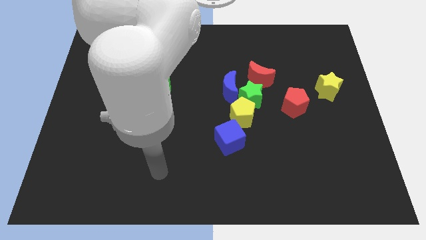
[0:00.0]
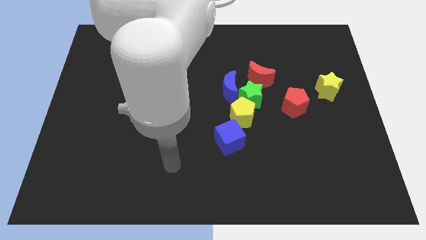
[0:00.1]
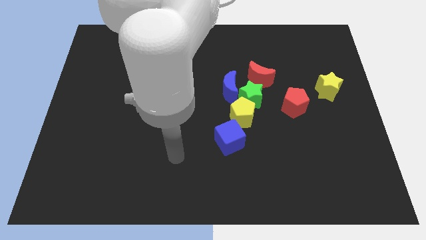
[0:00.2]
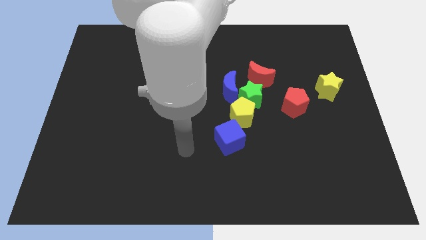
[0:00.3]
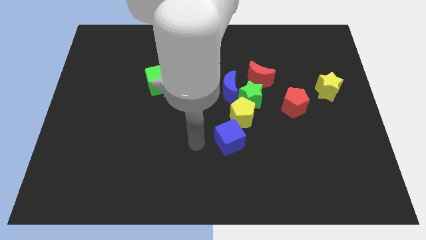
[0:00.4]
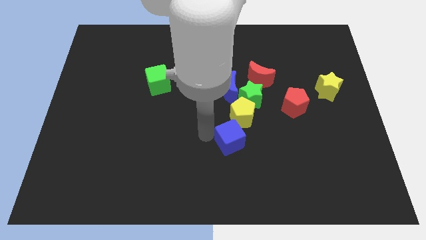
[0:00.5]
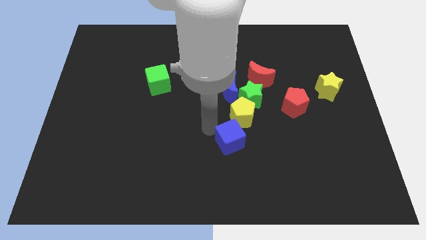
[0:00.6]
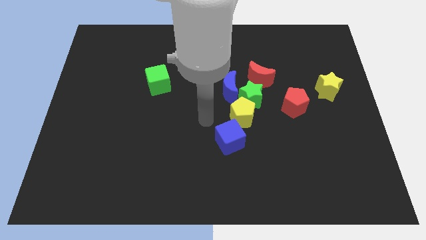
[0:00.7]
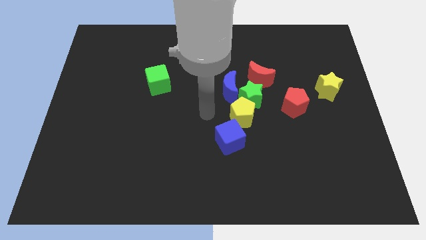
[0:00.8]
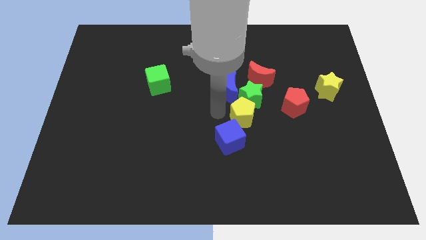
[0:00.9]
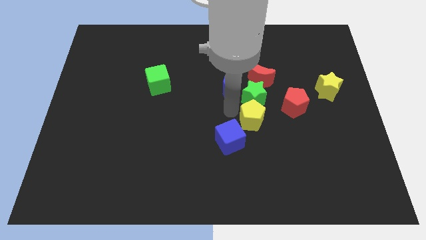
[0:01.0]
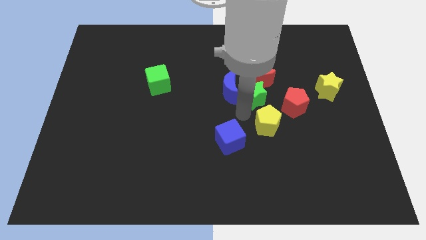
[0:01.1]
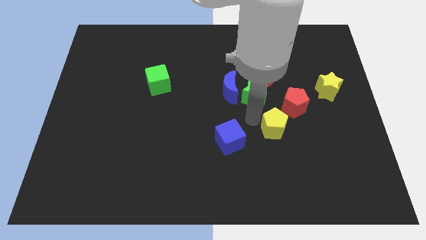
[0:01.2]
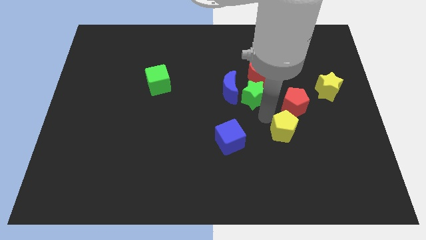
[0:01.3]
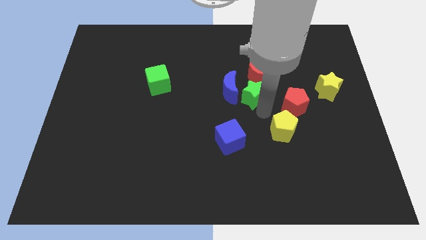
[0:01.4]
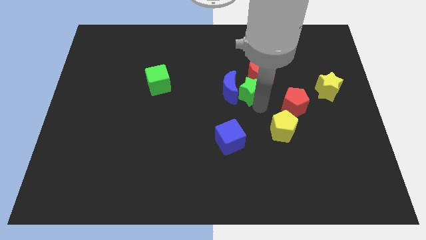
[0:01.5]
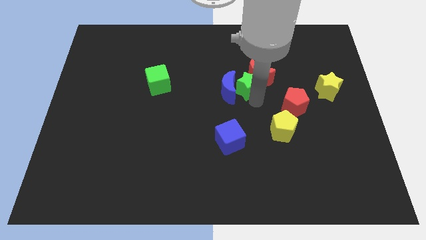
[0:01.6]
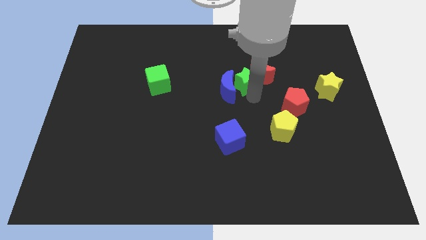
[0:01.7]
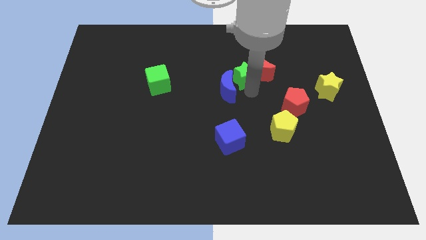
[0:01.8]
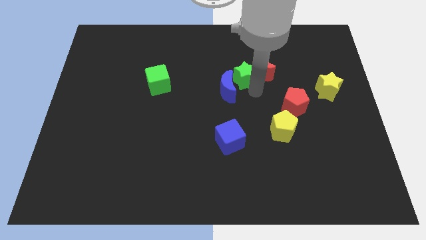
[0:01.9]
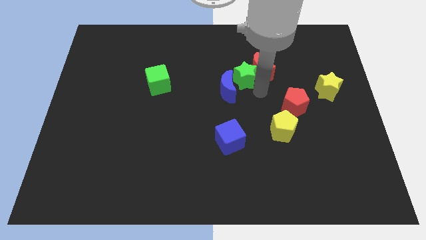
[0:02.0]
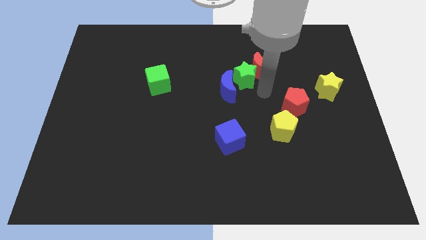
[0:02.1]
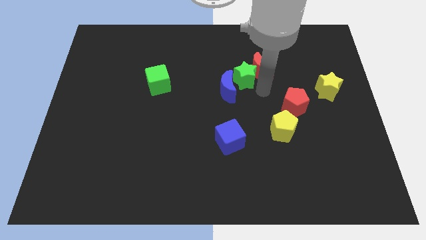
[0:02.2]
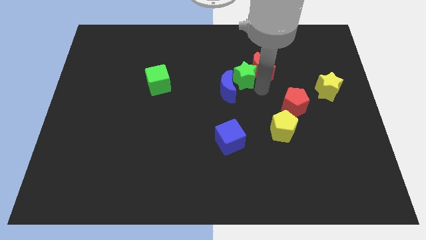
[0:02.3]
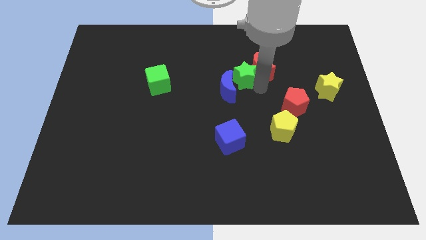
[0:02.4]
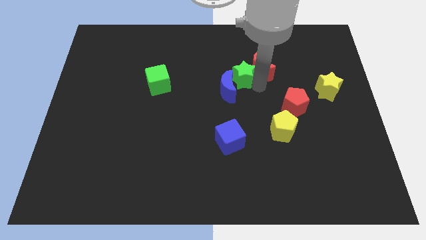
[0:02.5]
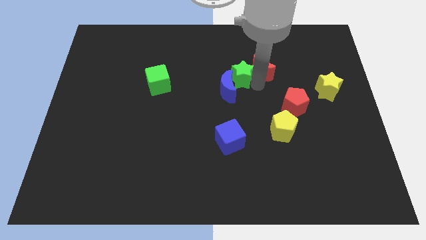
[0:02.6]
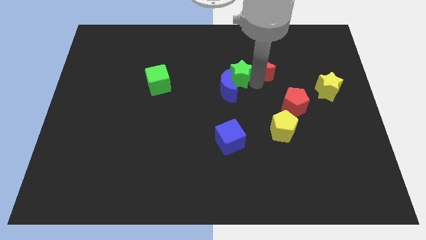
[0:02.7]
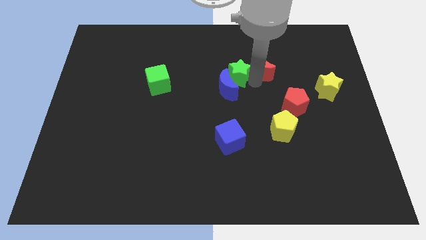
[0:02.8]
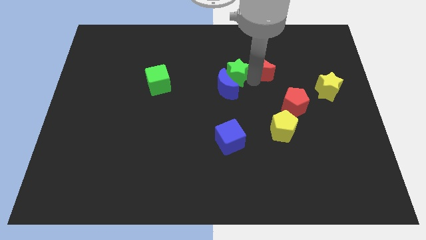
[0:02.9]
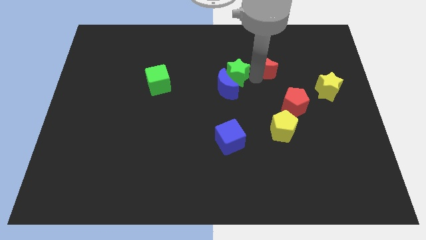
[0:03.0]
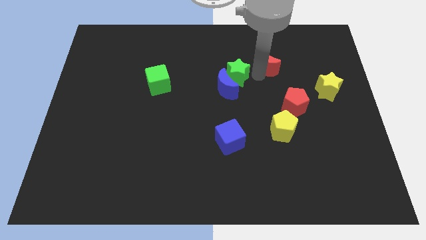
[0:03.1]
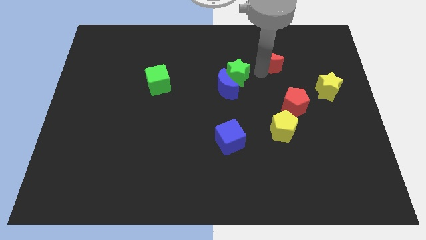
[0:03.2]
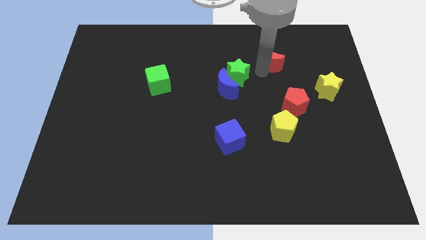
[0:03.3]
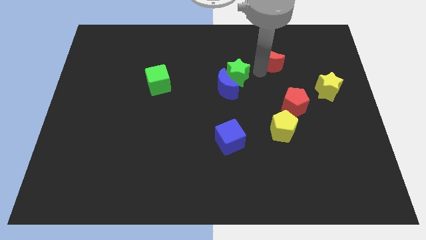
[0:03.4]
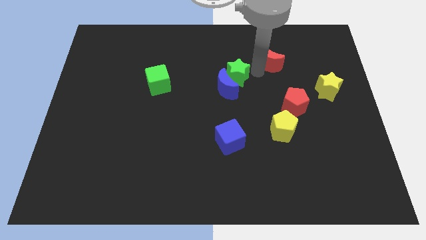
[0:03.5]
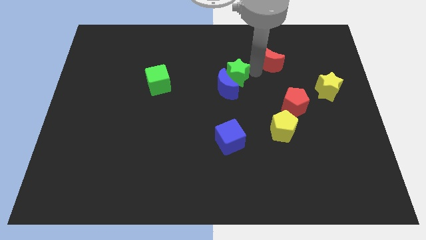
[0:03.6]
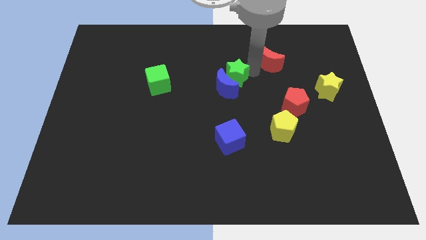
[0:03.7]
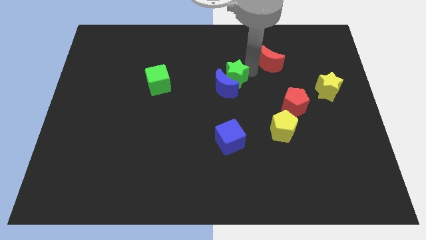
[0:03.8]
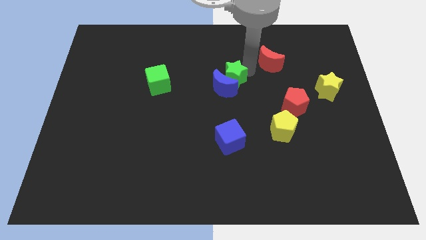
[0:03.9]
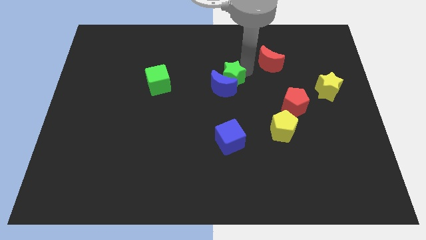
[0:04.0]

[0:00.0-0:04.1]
separate the green star from the group of blocks

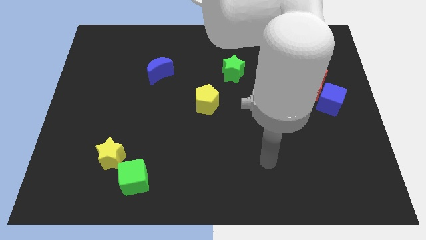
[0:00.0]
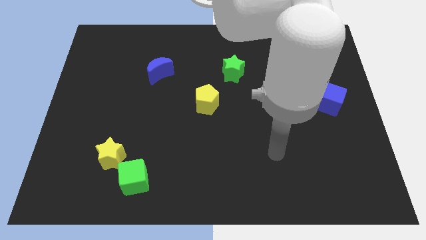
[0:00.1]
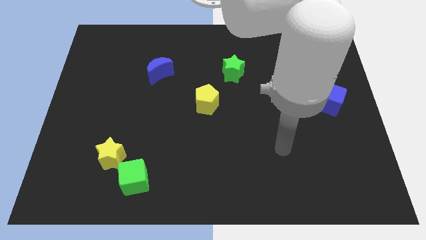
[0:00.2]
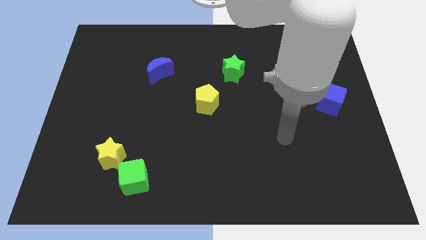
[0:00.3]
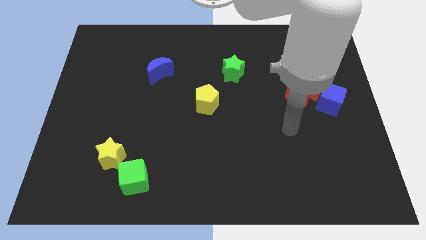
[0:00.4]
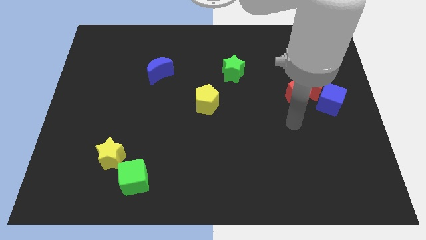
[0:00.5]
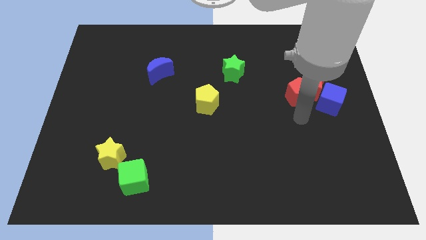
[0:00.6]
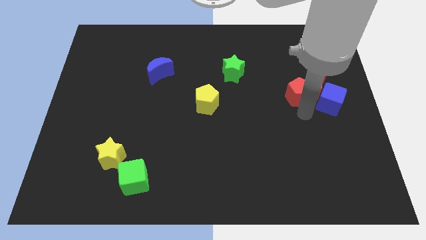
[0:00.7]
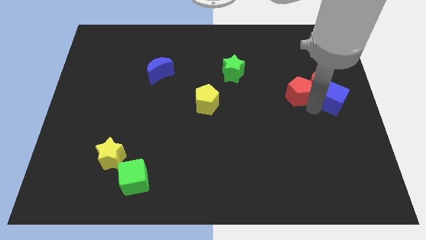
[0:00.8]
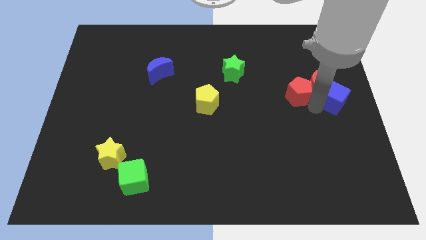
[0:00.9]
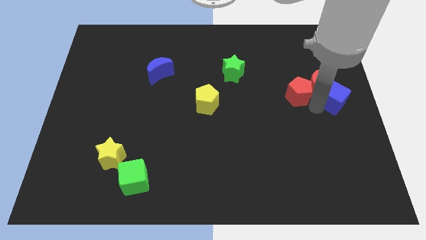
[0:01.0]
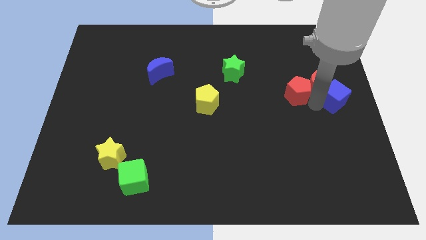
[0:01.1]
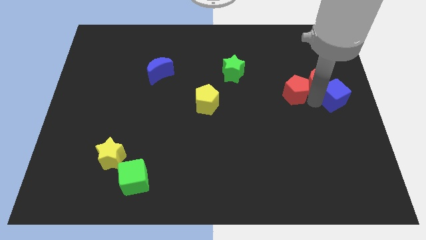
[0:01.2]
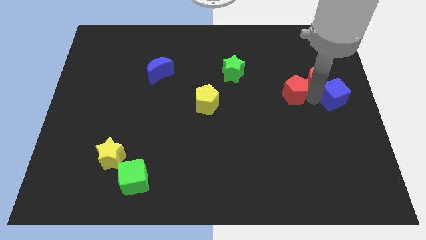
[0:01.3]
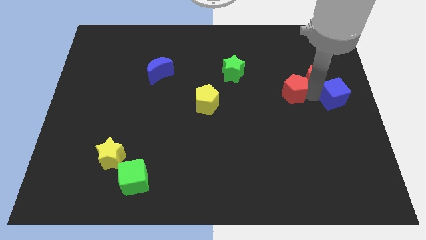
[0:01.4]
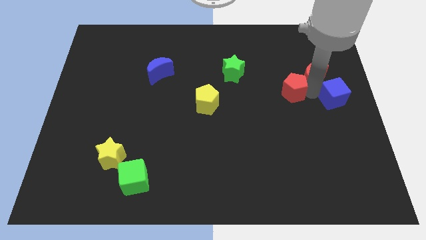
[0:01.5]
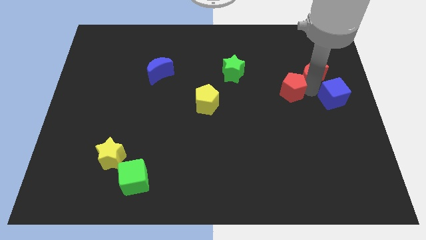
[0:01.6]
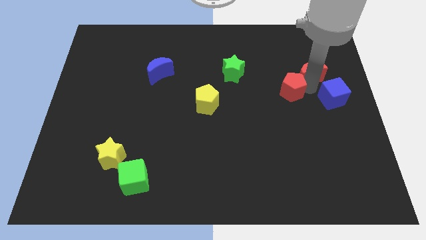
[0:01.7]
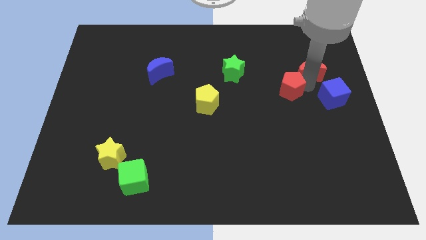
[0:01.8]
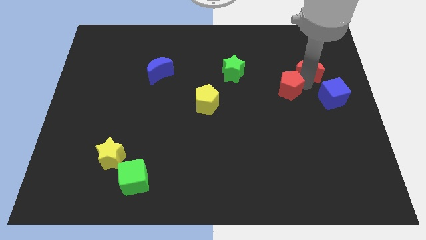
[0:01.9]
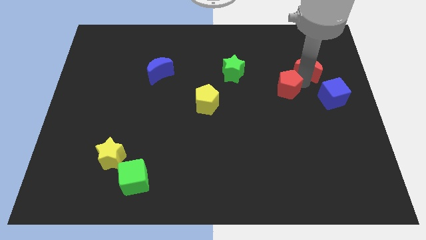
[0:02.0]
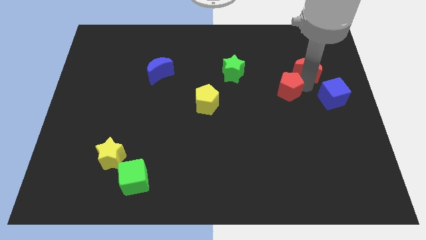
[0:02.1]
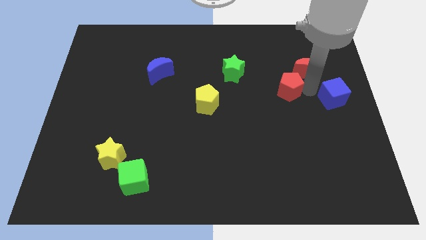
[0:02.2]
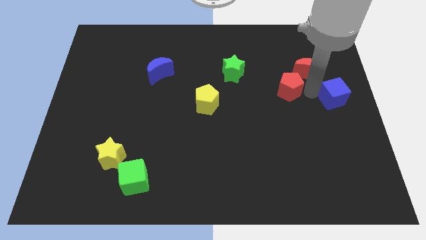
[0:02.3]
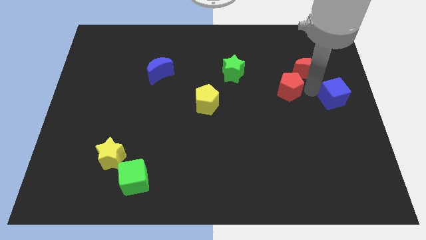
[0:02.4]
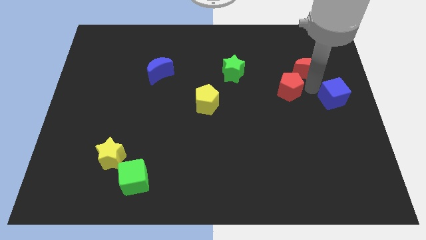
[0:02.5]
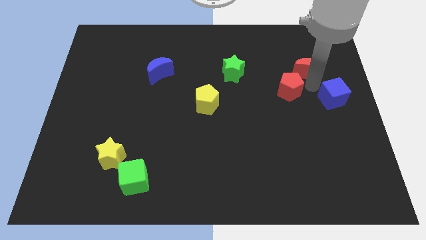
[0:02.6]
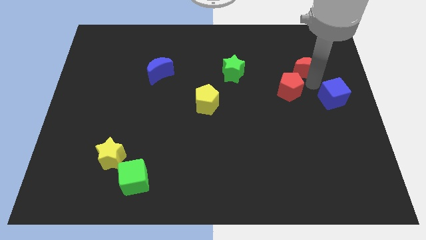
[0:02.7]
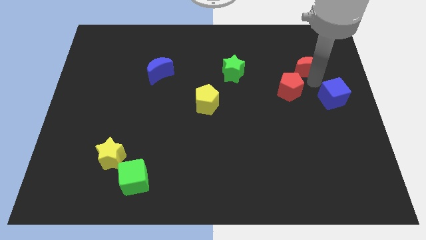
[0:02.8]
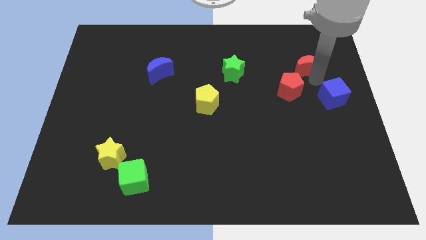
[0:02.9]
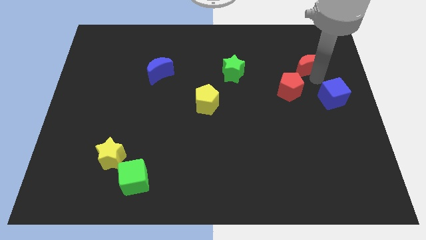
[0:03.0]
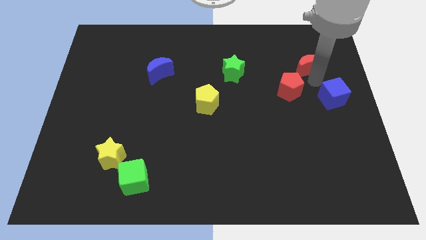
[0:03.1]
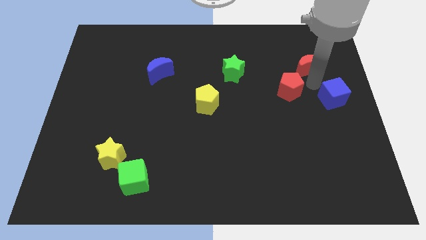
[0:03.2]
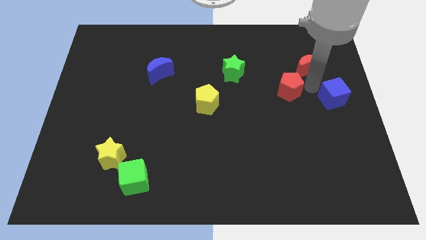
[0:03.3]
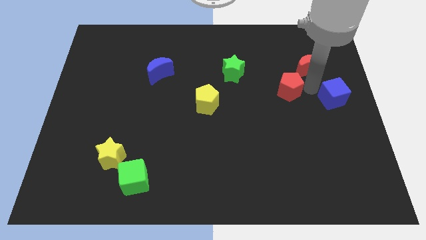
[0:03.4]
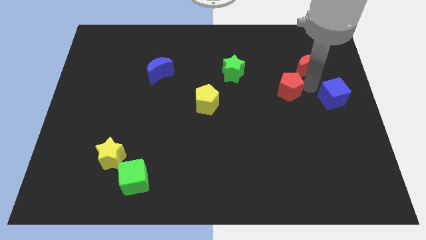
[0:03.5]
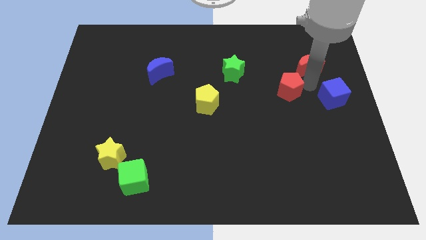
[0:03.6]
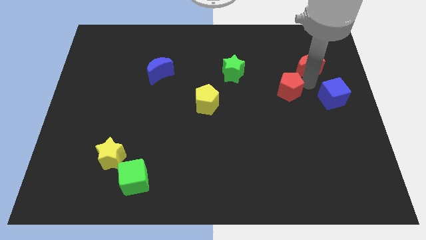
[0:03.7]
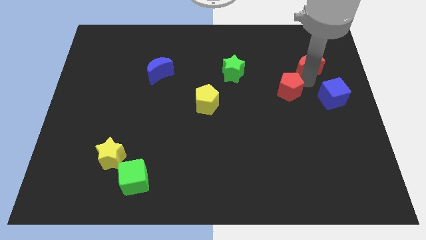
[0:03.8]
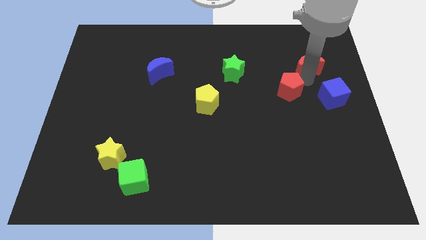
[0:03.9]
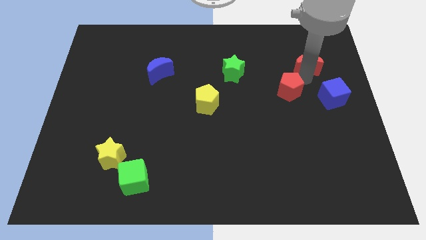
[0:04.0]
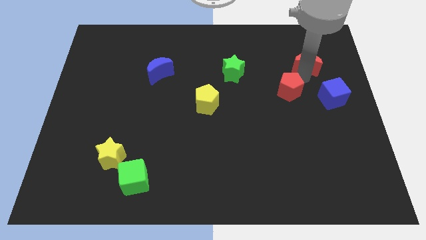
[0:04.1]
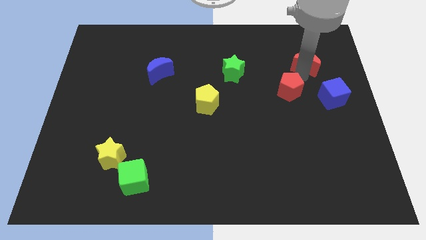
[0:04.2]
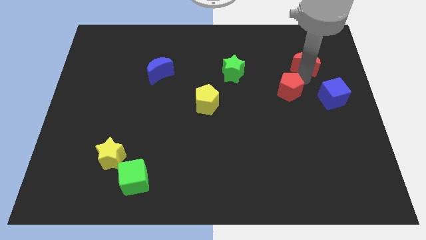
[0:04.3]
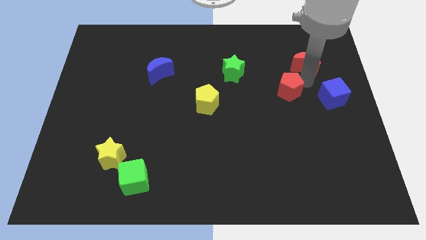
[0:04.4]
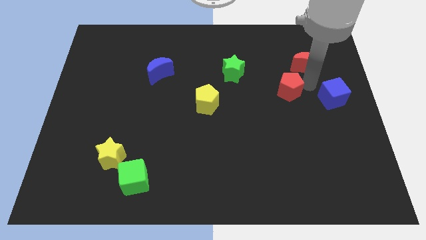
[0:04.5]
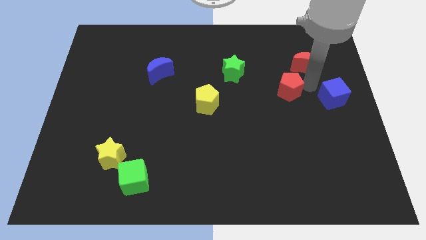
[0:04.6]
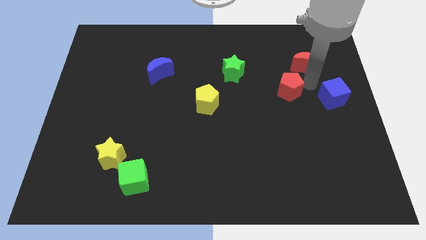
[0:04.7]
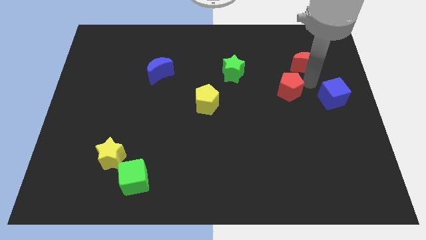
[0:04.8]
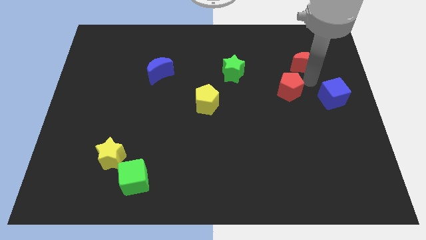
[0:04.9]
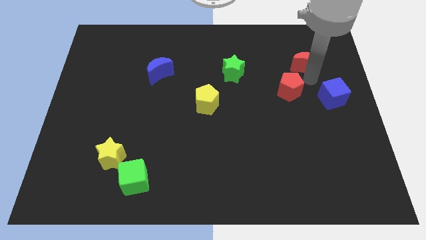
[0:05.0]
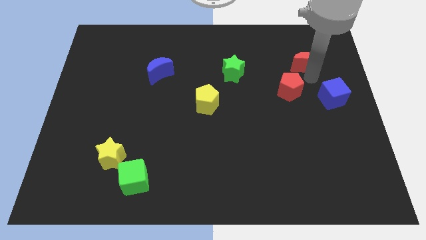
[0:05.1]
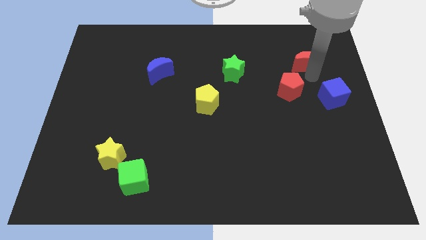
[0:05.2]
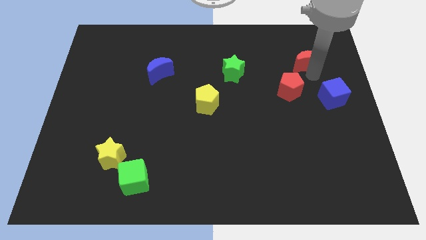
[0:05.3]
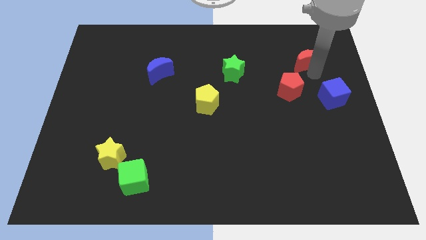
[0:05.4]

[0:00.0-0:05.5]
separate the red moon from the red pentagon and blue cube
